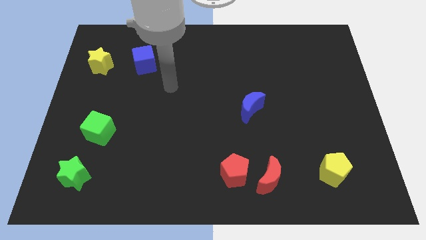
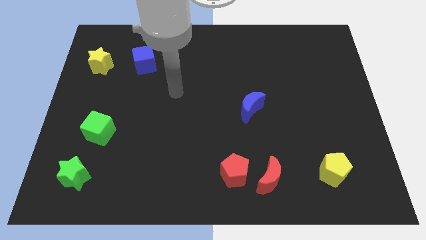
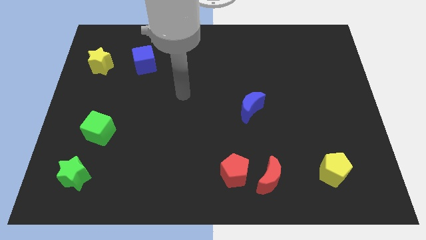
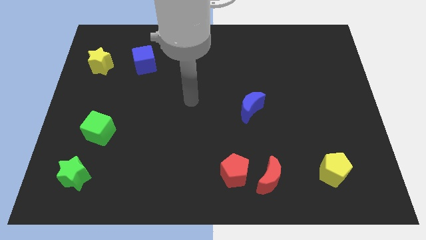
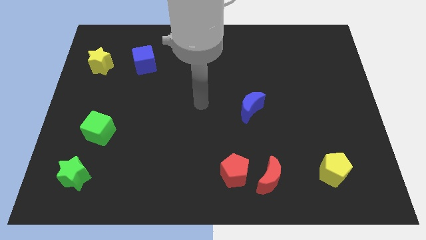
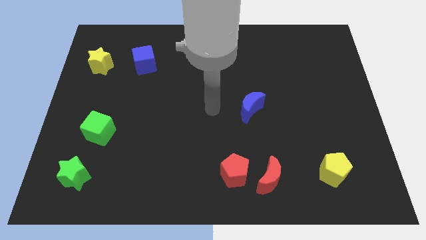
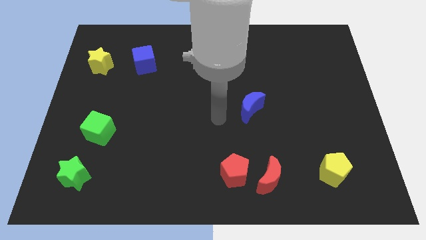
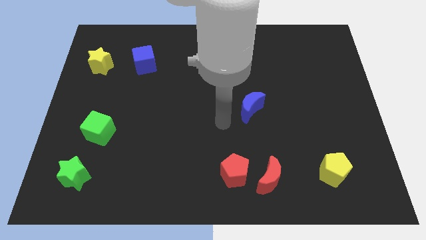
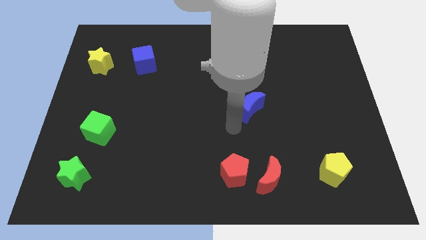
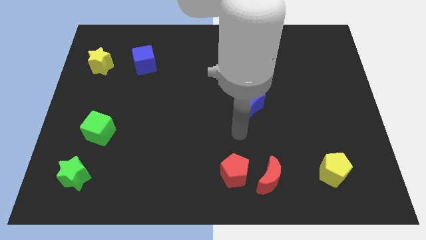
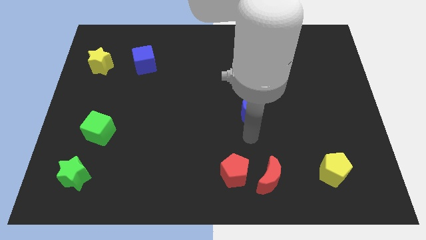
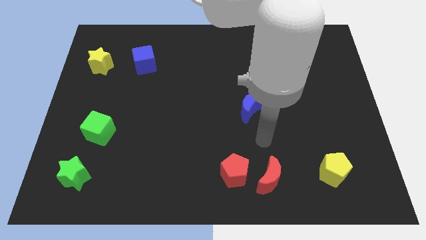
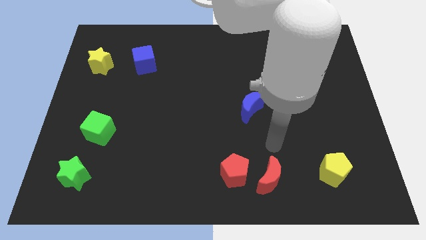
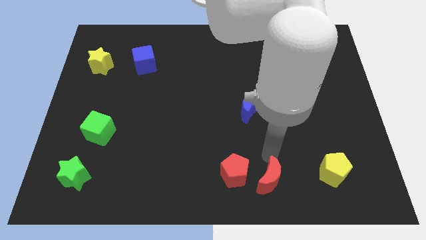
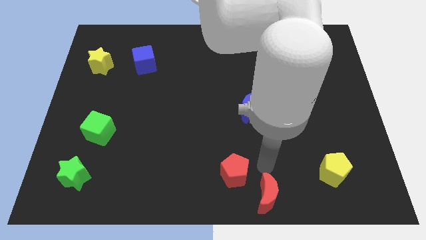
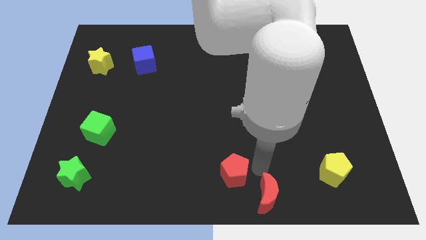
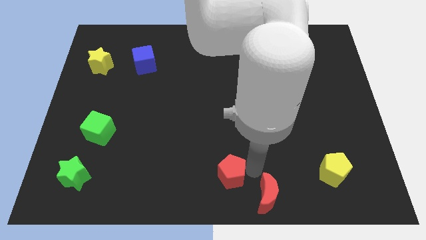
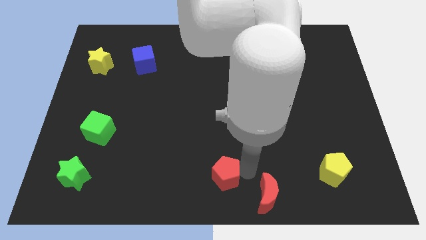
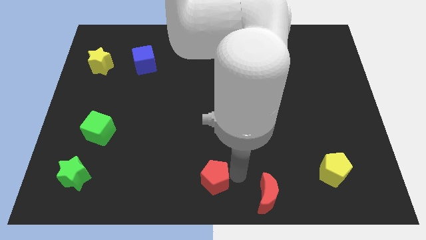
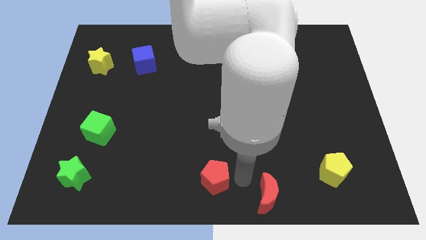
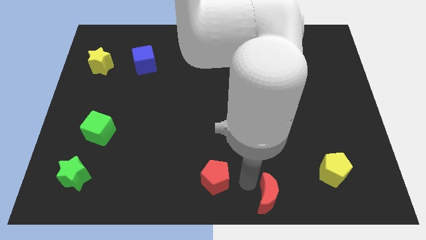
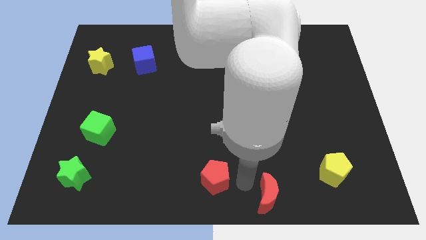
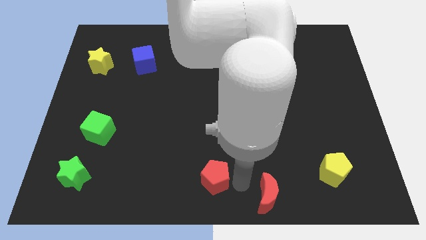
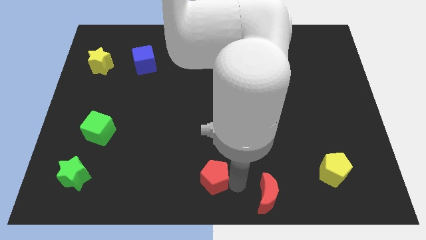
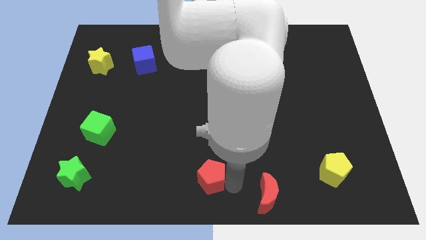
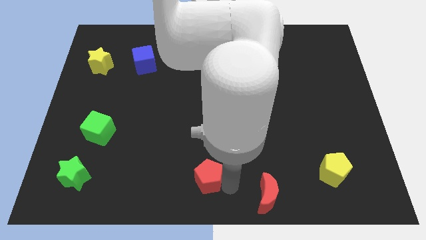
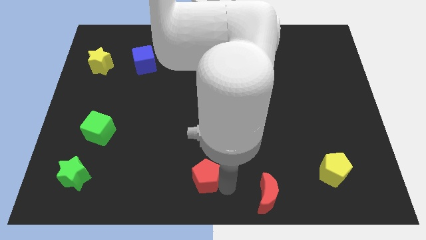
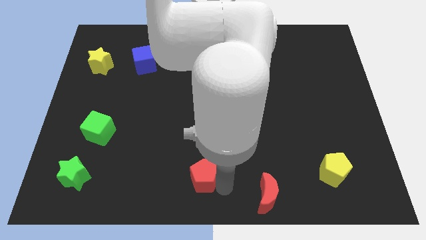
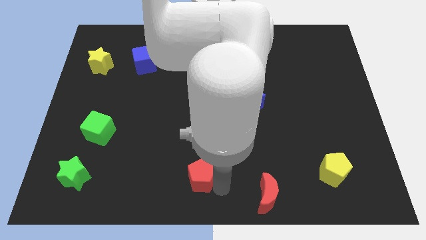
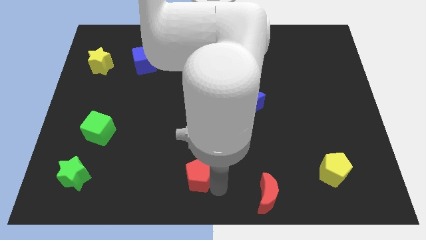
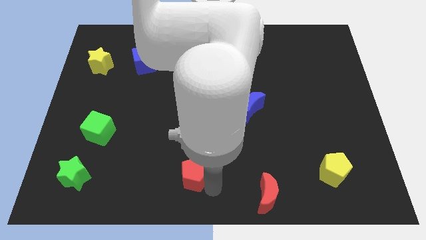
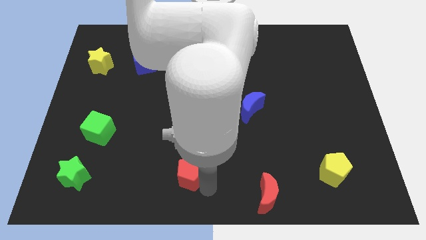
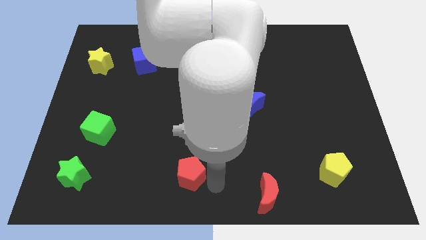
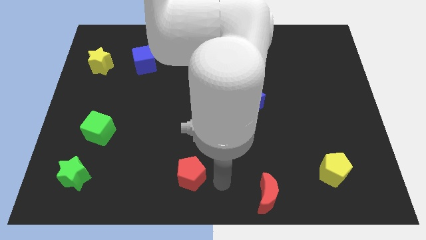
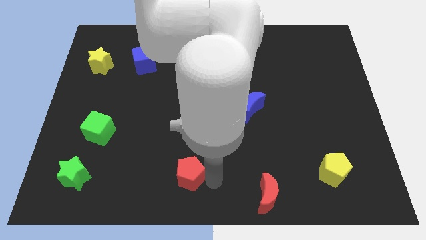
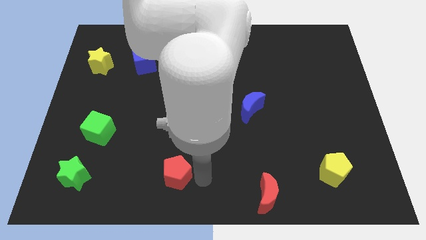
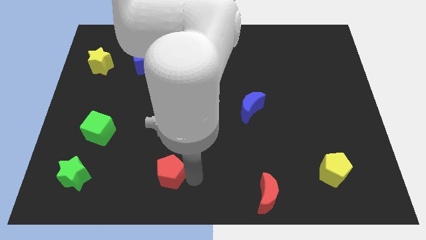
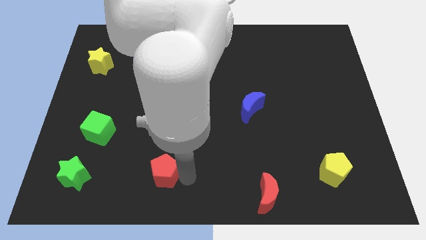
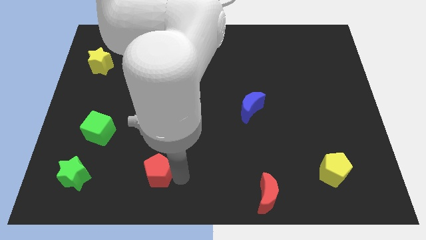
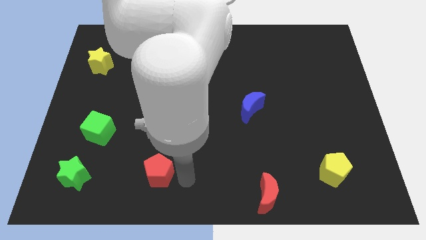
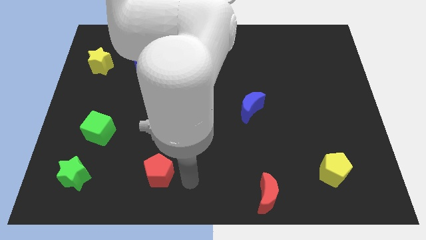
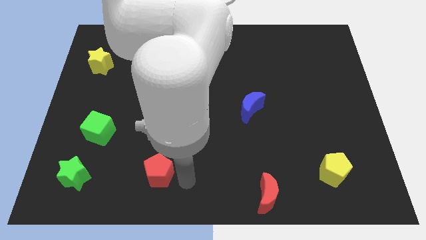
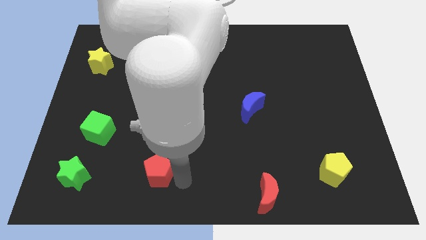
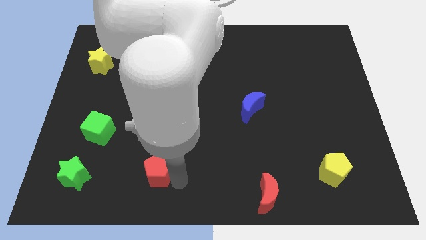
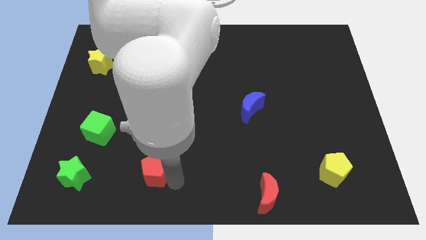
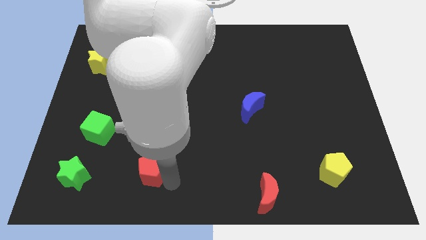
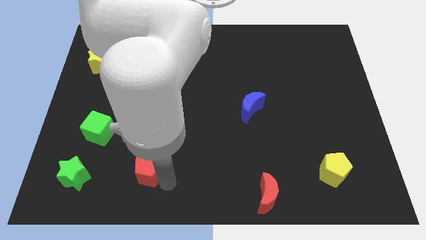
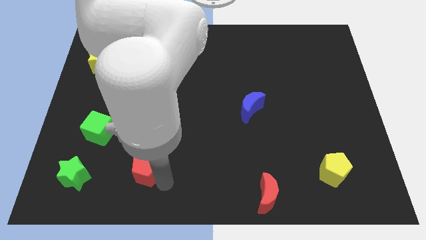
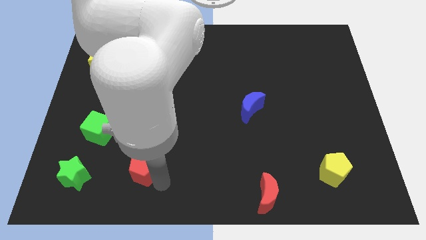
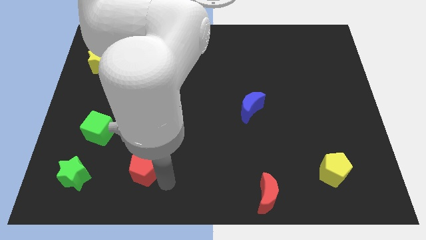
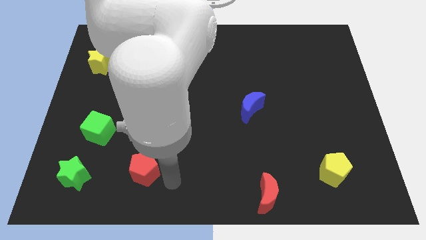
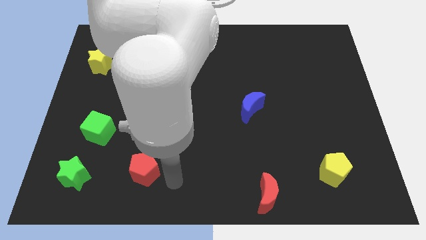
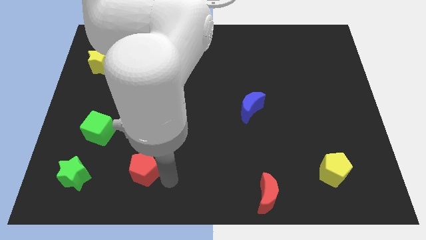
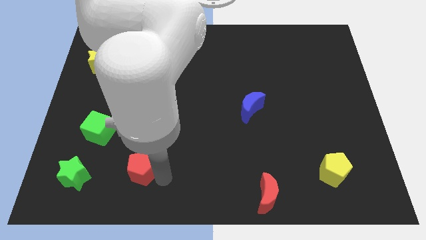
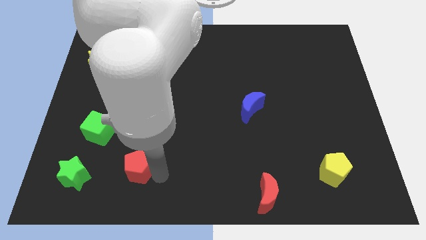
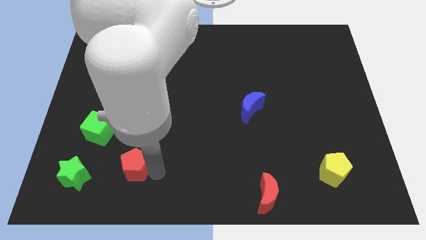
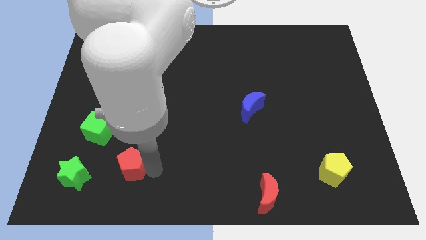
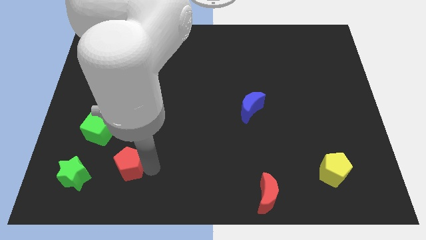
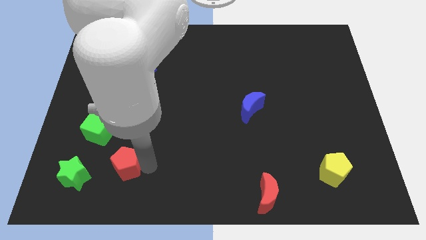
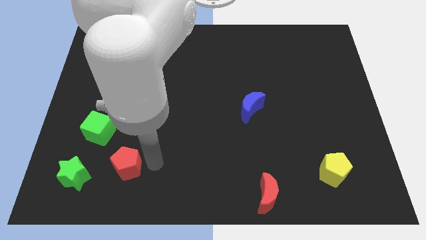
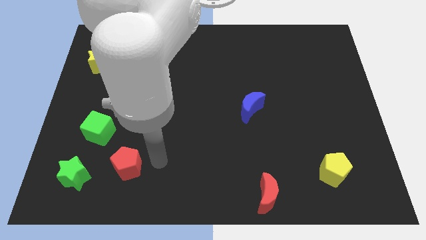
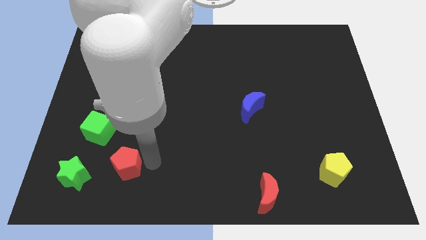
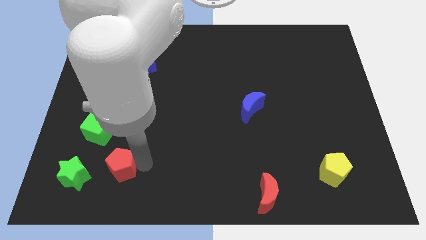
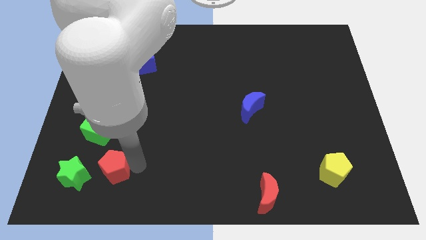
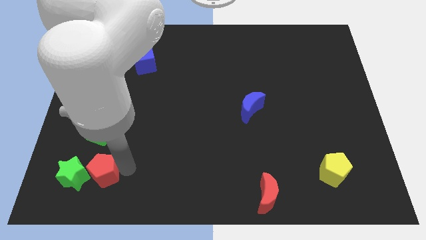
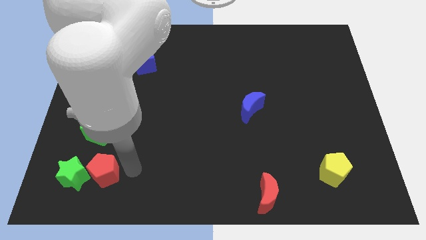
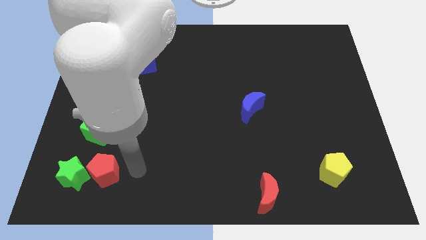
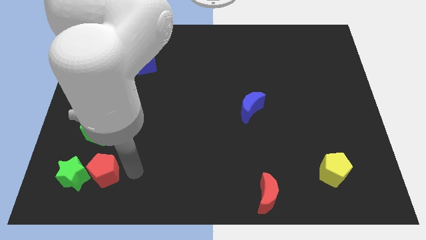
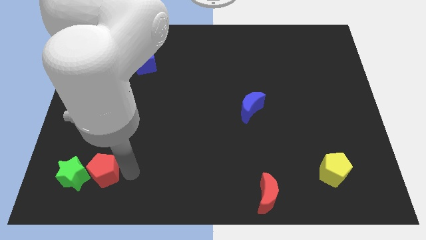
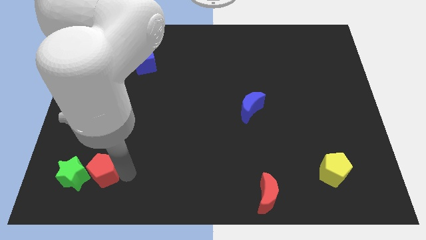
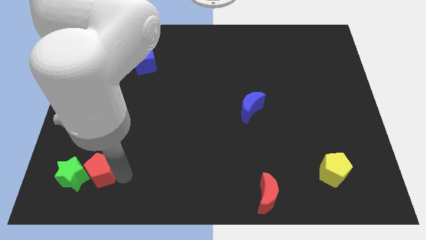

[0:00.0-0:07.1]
slide the red pentagon to the green star
